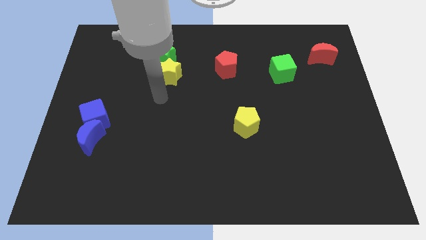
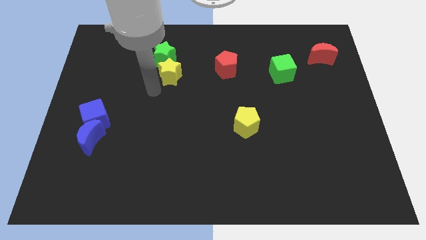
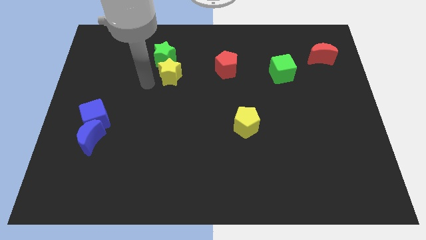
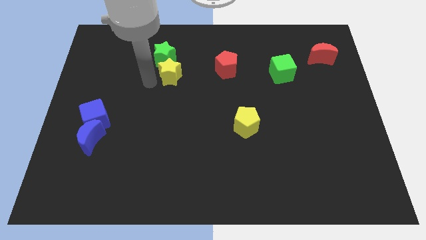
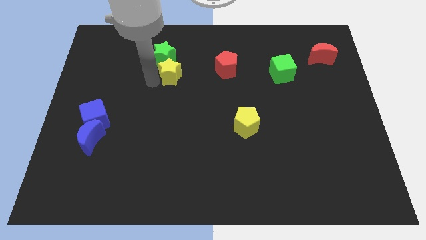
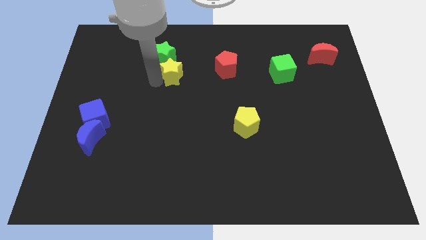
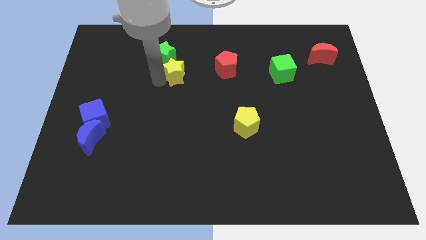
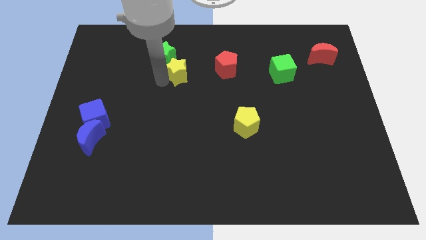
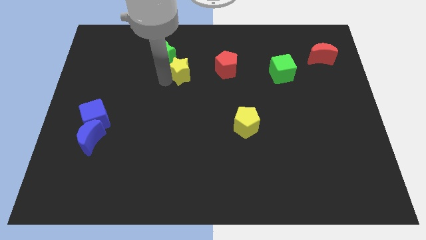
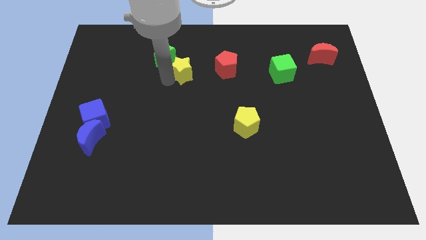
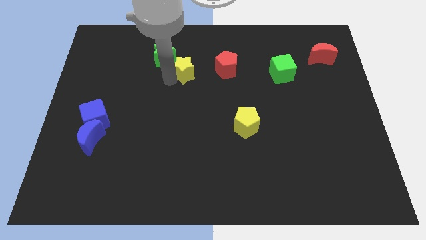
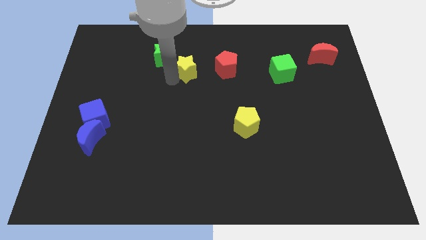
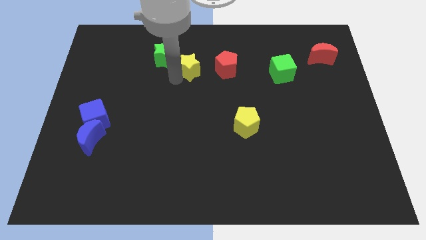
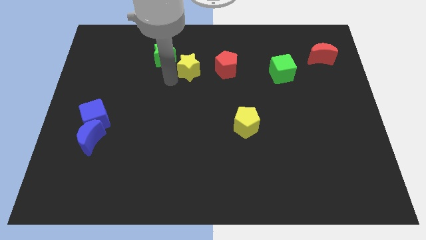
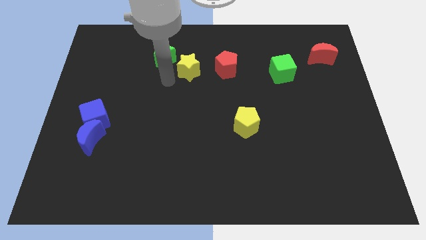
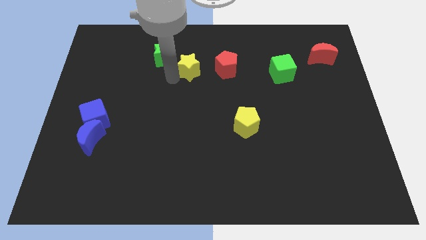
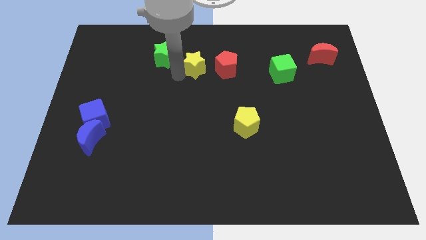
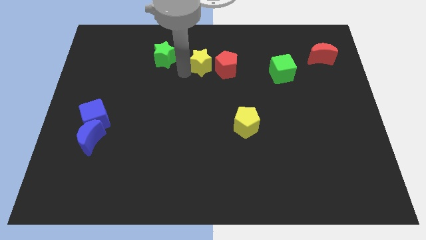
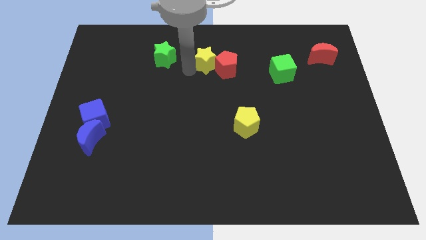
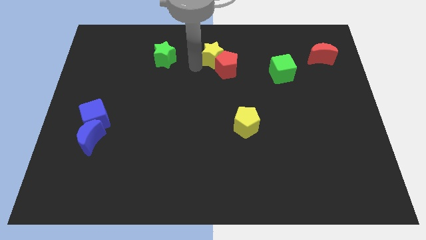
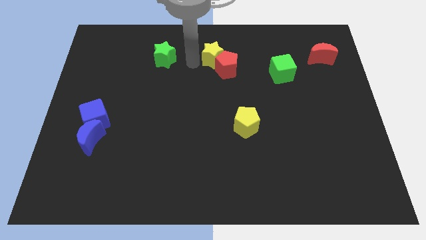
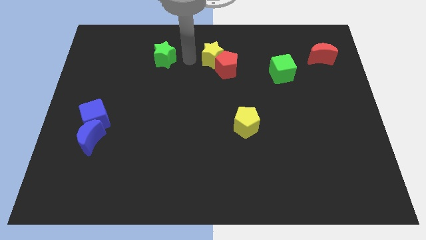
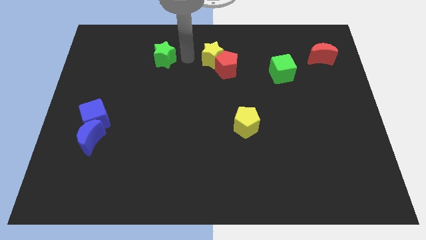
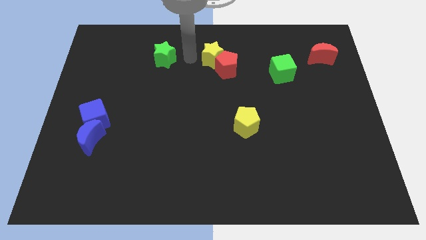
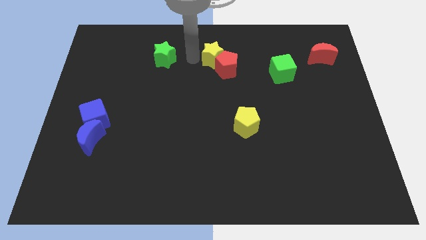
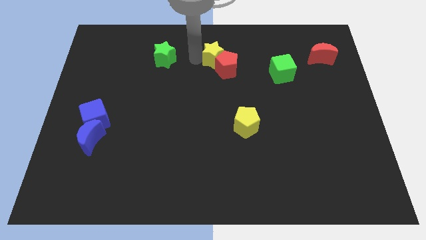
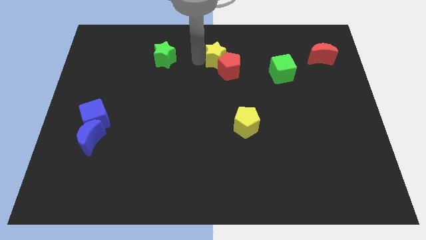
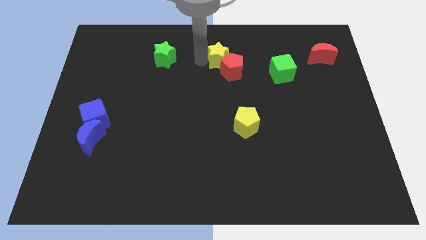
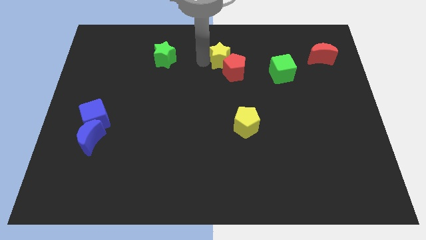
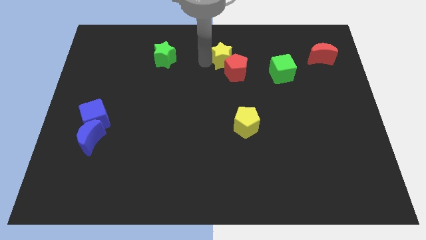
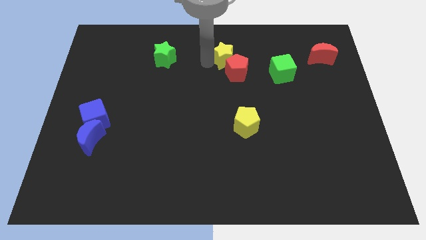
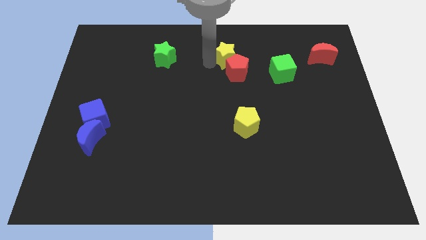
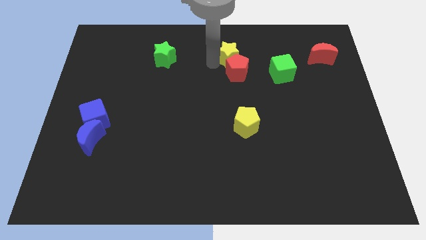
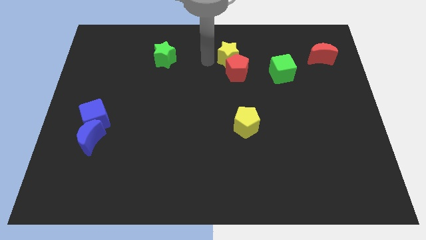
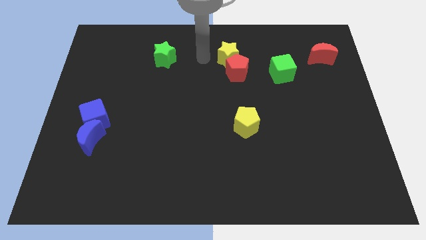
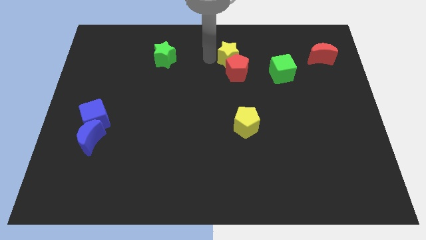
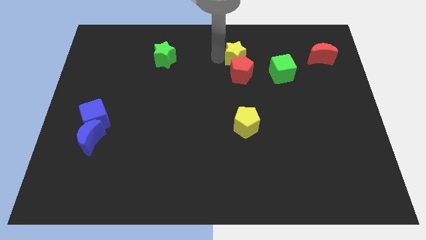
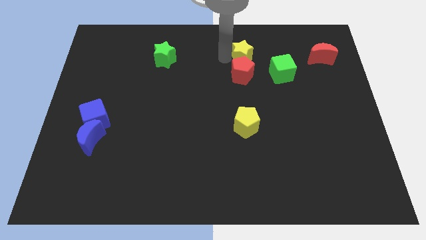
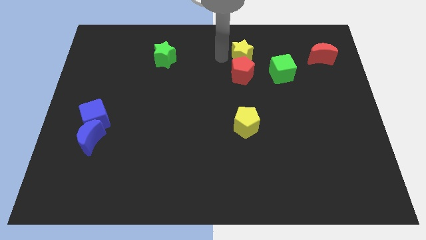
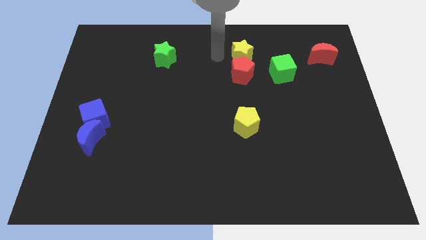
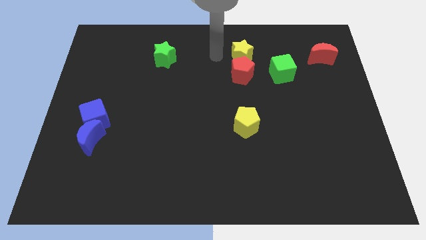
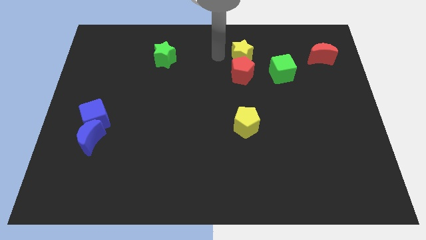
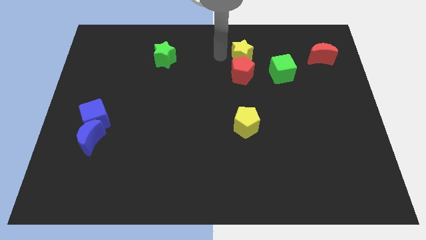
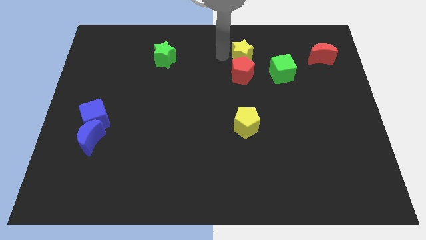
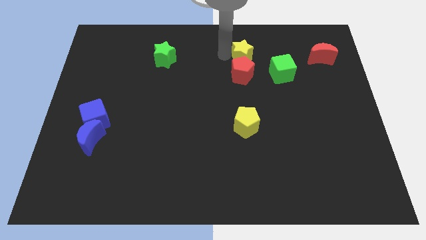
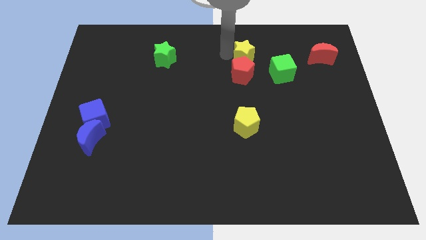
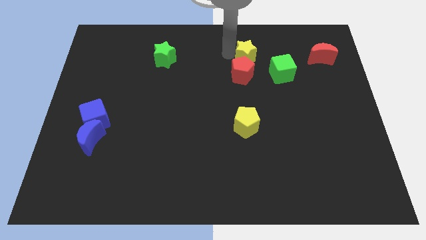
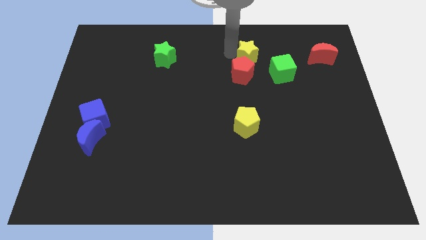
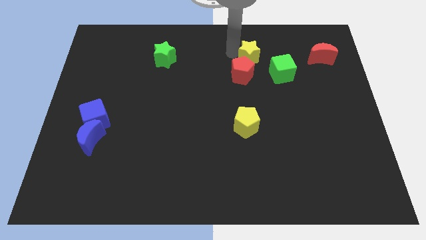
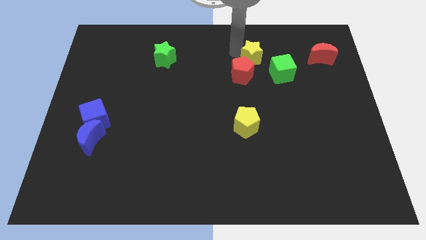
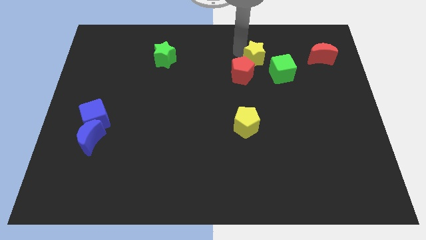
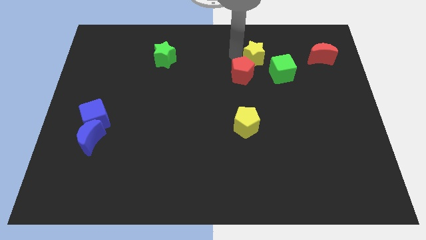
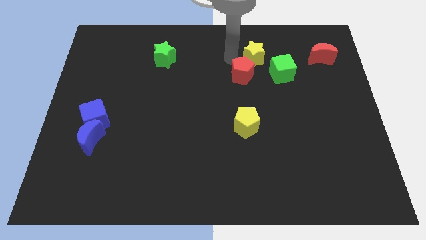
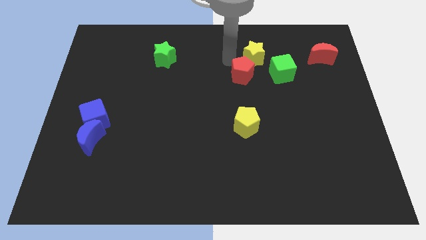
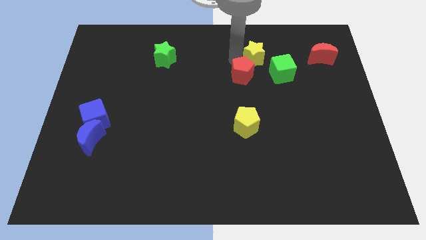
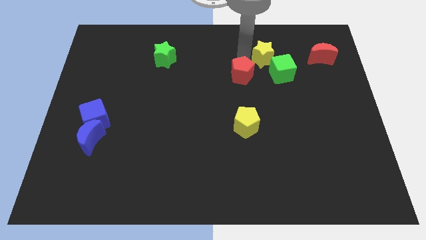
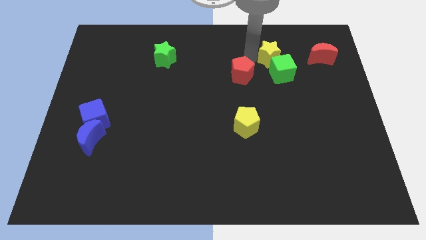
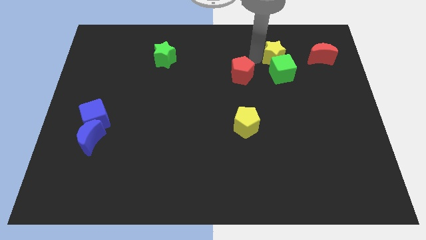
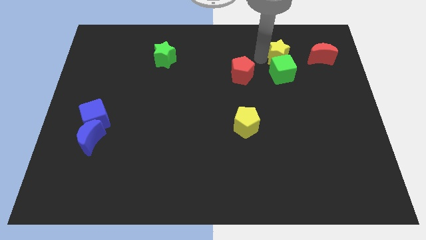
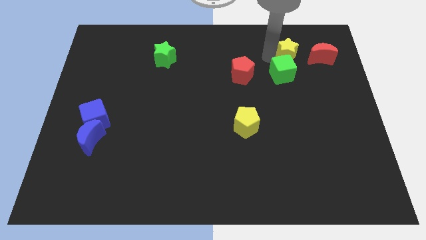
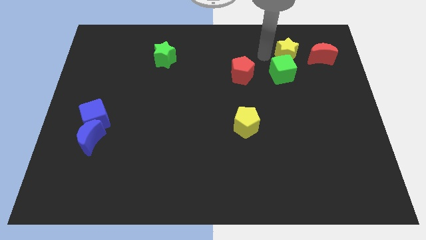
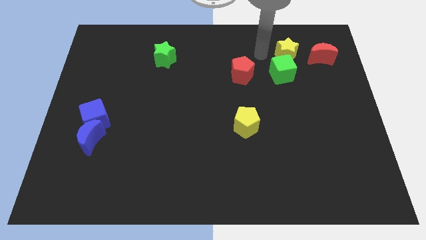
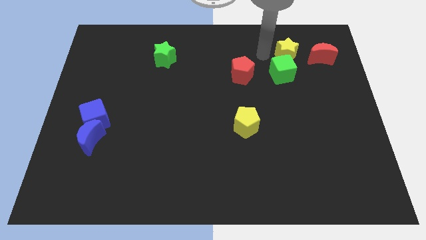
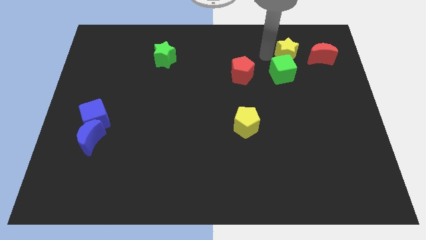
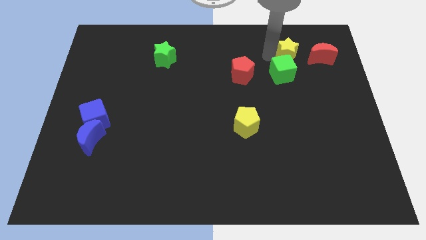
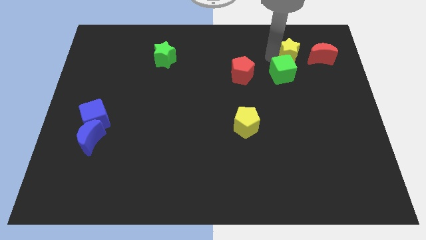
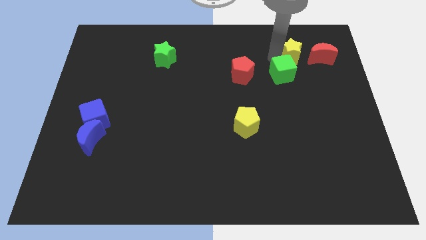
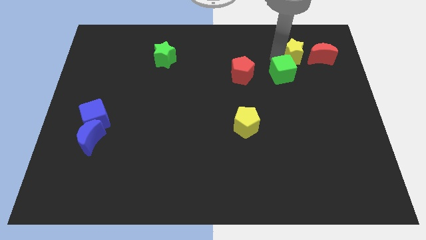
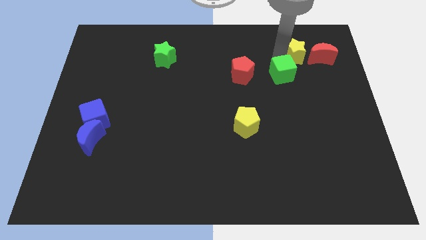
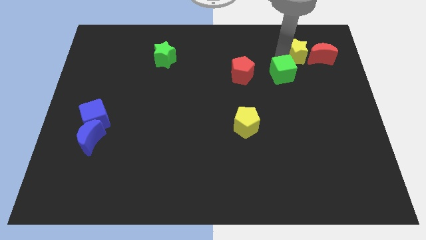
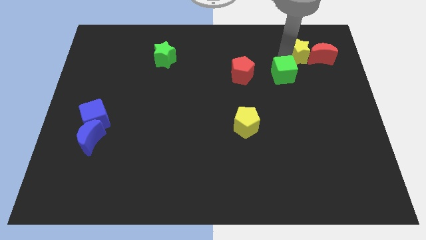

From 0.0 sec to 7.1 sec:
slide the yellow star next to the red moon
